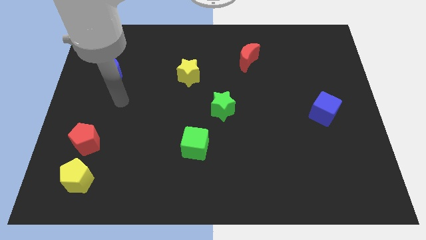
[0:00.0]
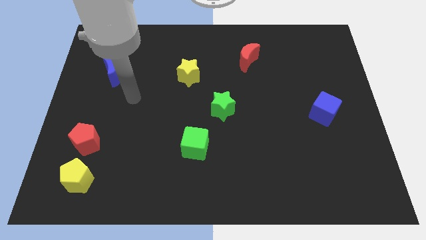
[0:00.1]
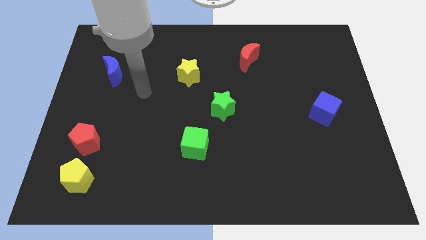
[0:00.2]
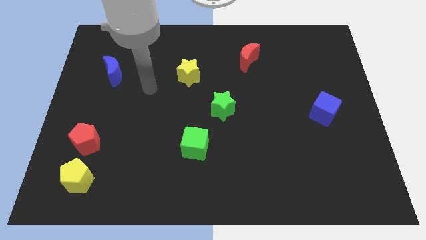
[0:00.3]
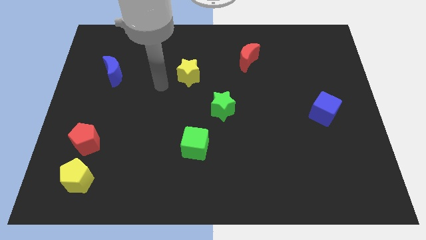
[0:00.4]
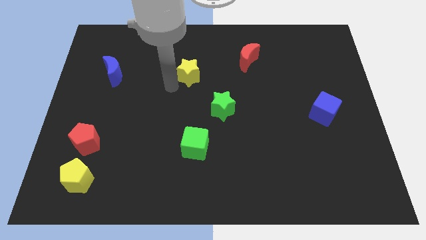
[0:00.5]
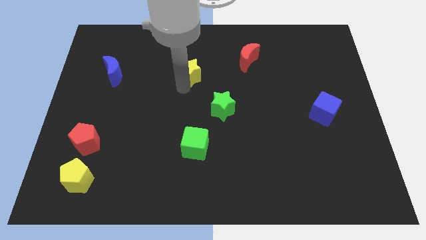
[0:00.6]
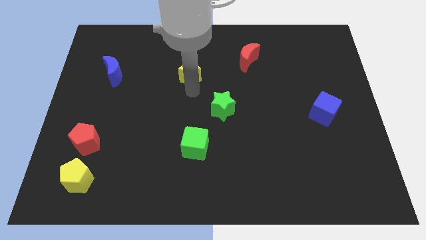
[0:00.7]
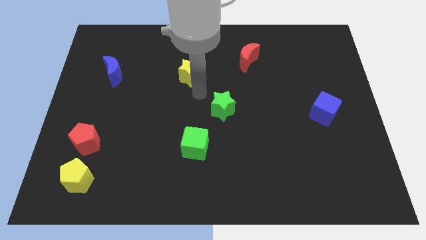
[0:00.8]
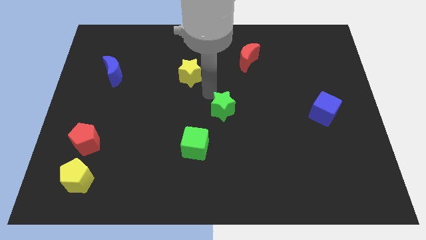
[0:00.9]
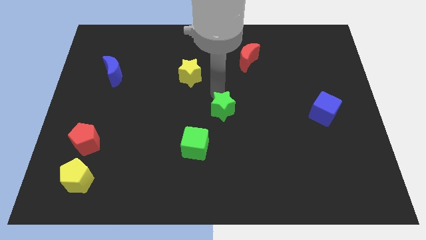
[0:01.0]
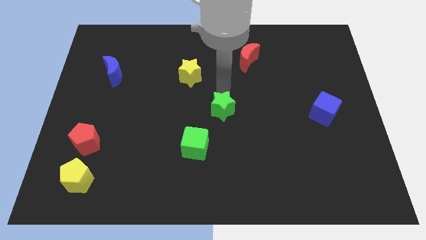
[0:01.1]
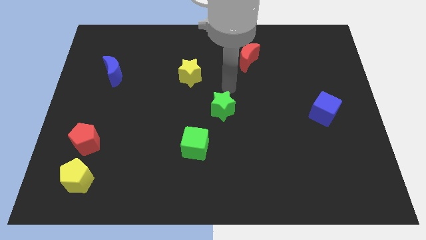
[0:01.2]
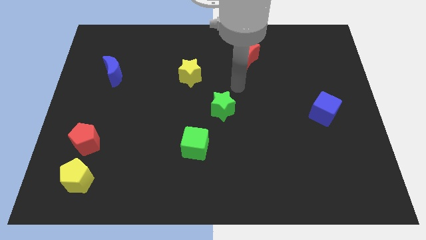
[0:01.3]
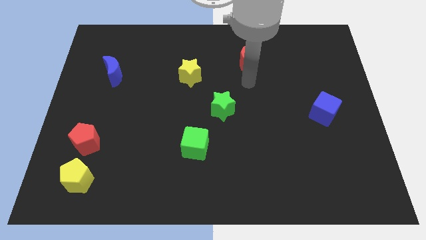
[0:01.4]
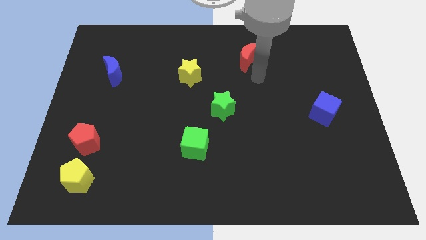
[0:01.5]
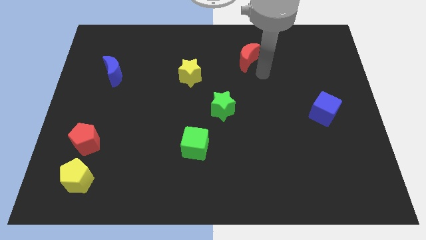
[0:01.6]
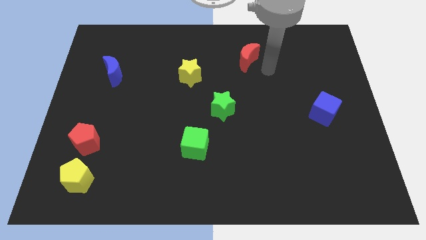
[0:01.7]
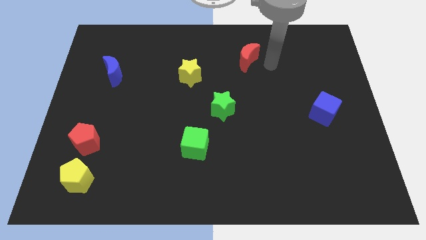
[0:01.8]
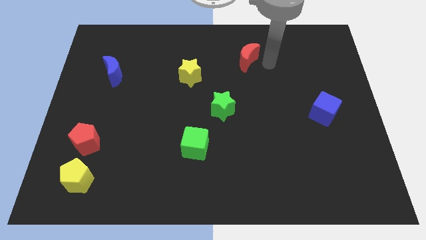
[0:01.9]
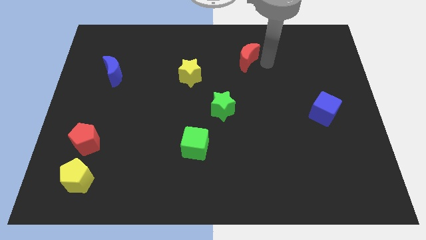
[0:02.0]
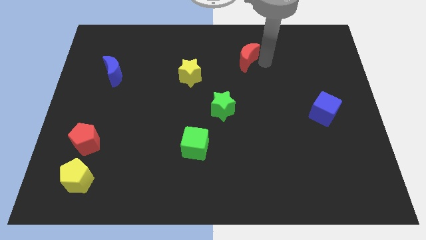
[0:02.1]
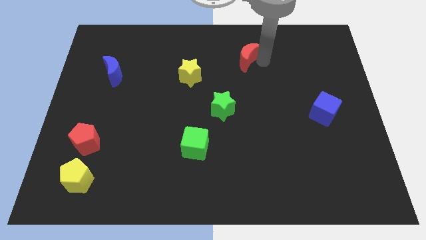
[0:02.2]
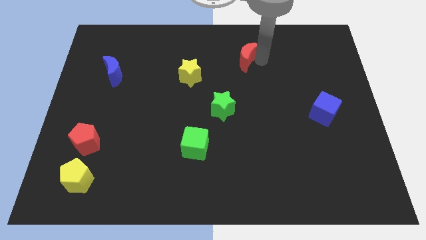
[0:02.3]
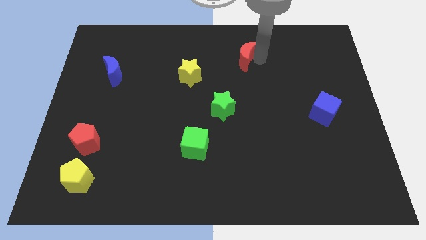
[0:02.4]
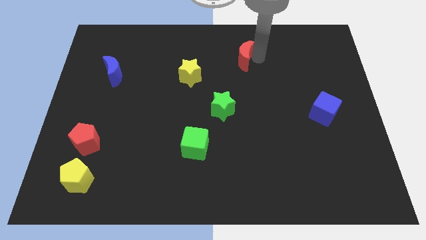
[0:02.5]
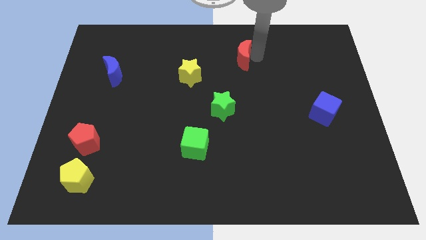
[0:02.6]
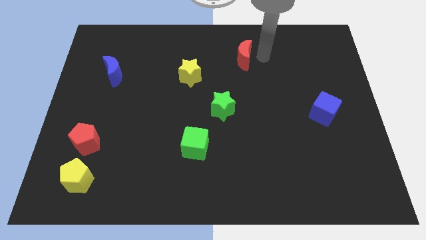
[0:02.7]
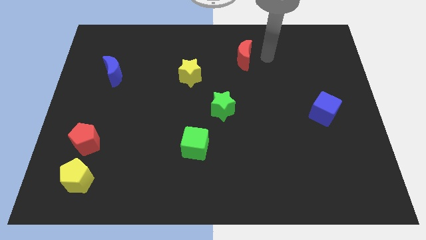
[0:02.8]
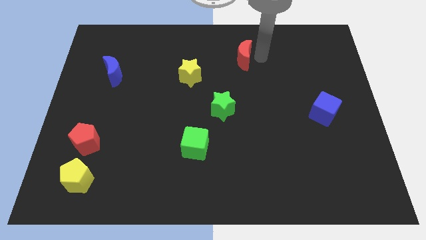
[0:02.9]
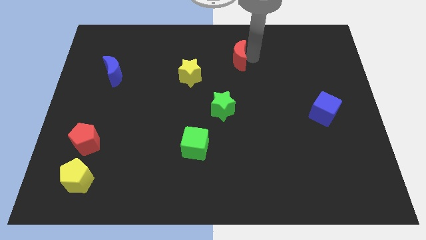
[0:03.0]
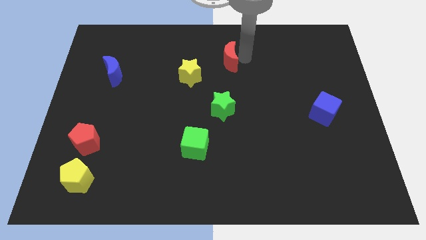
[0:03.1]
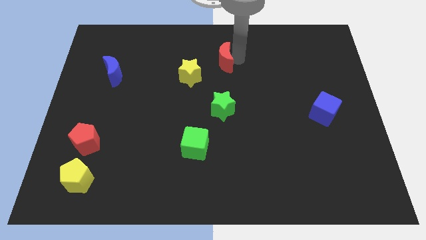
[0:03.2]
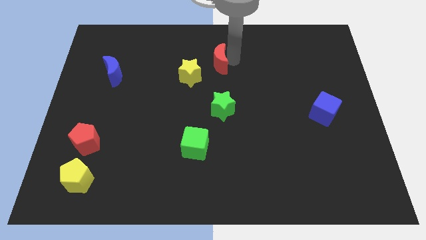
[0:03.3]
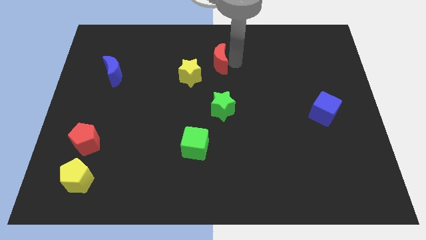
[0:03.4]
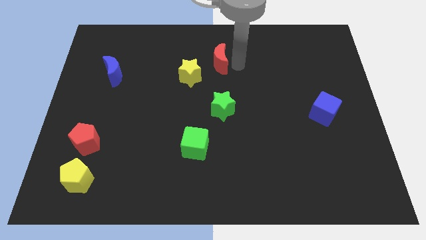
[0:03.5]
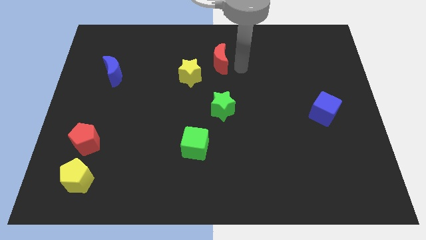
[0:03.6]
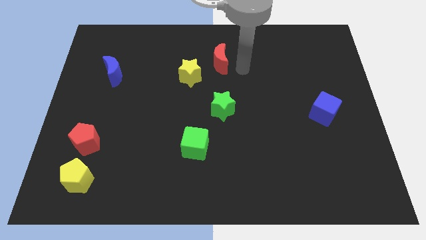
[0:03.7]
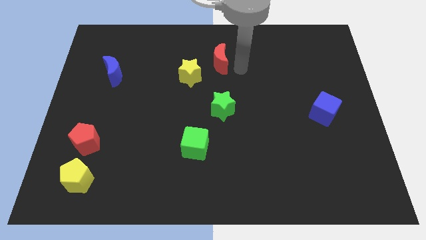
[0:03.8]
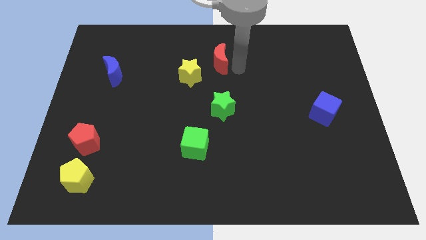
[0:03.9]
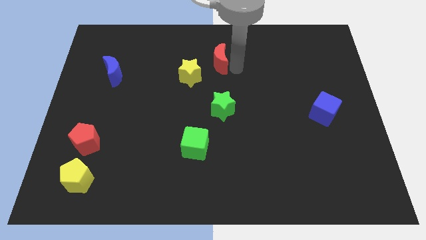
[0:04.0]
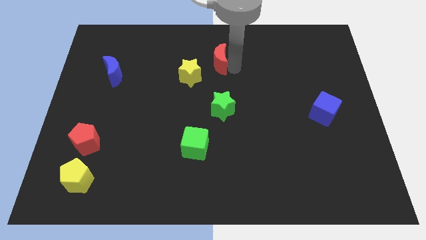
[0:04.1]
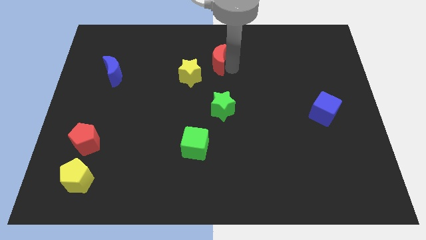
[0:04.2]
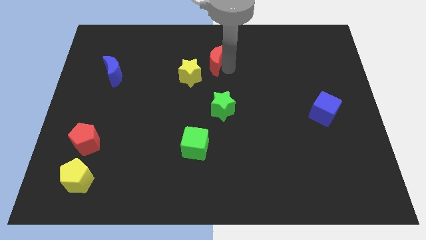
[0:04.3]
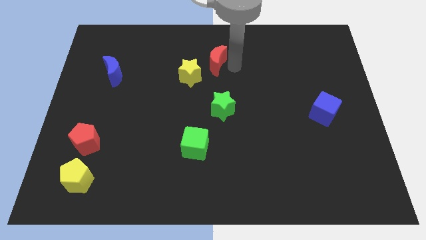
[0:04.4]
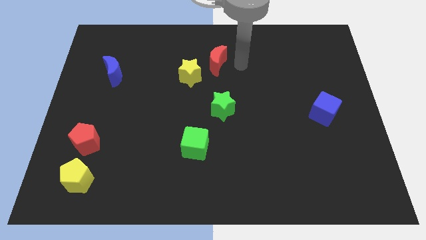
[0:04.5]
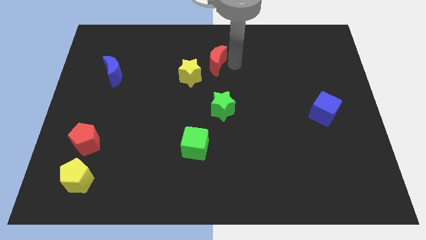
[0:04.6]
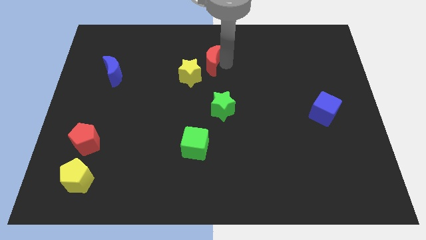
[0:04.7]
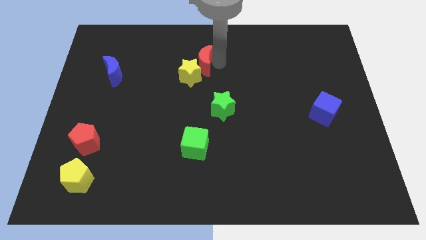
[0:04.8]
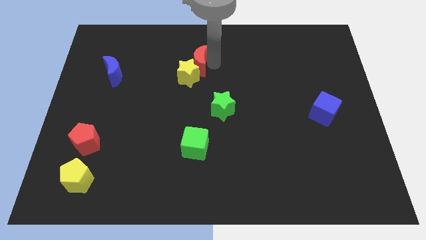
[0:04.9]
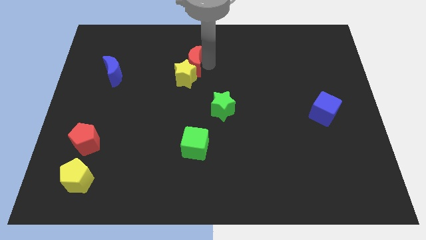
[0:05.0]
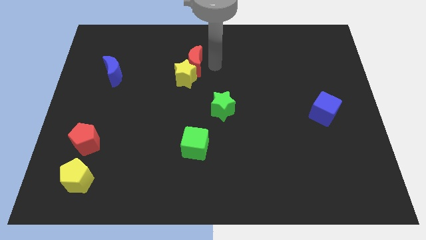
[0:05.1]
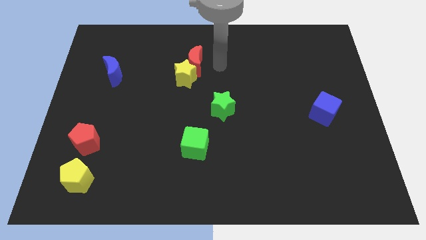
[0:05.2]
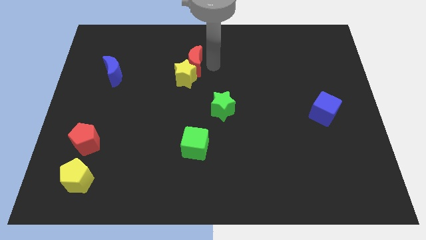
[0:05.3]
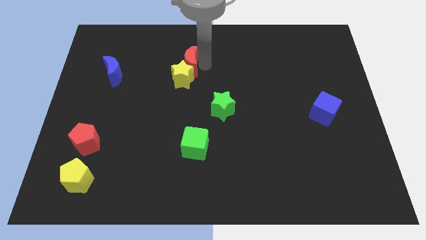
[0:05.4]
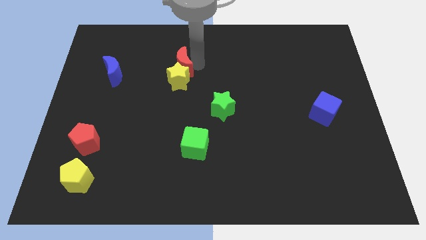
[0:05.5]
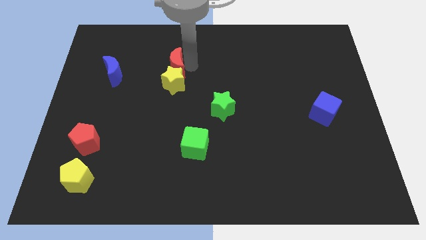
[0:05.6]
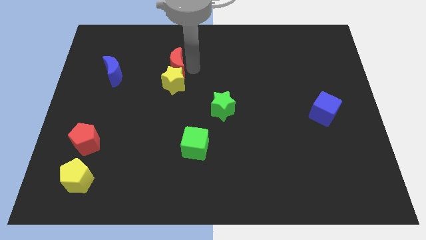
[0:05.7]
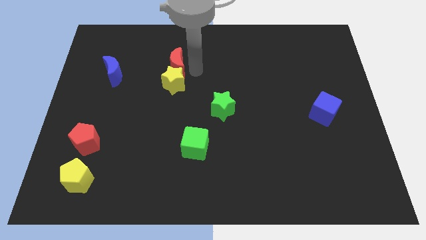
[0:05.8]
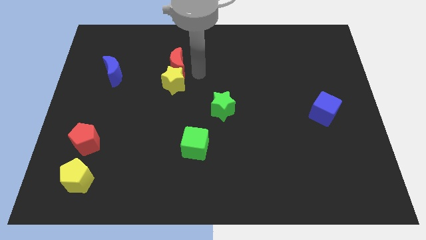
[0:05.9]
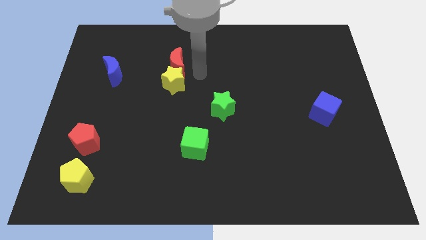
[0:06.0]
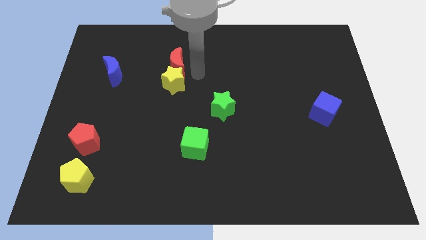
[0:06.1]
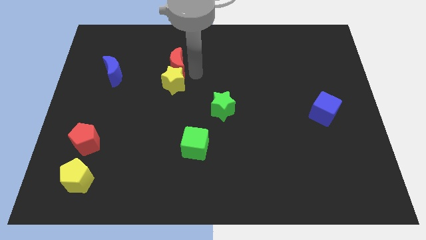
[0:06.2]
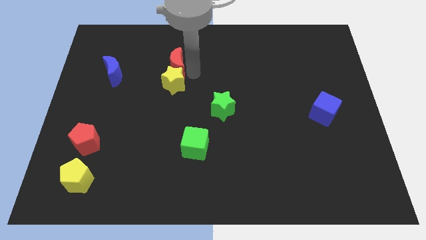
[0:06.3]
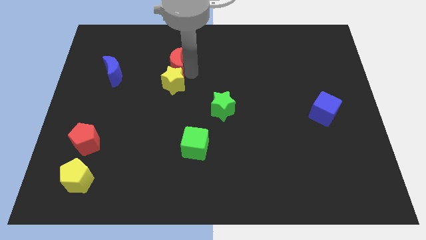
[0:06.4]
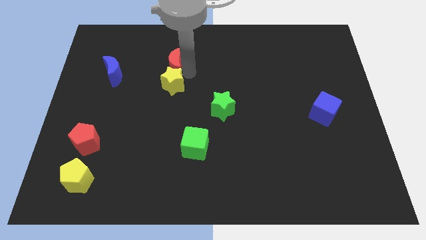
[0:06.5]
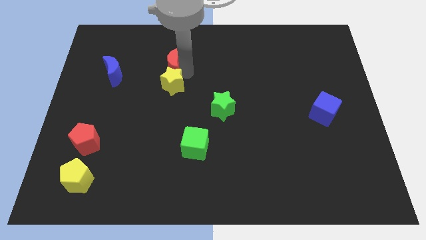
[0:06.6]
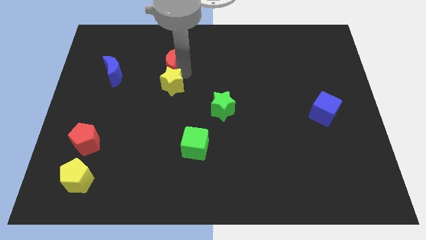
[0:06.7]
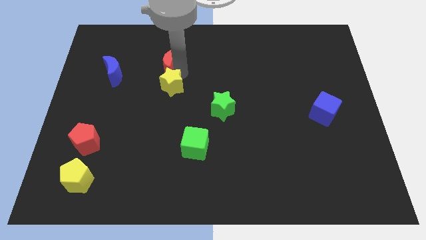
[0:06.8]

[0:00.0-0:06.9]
slide the red moon left

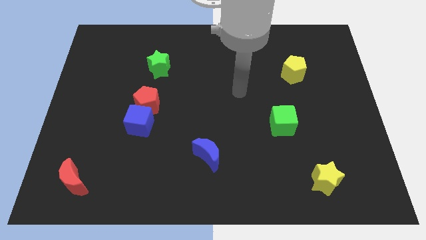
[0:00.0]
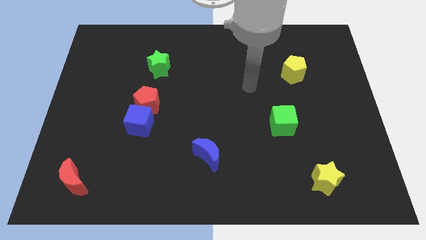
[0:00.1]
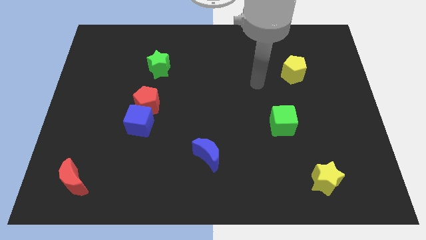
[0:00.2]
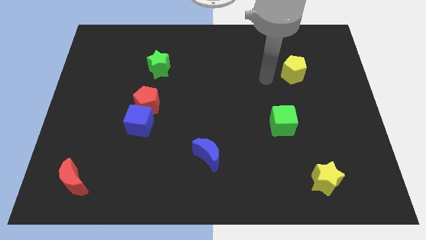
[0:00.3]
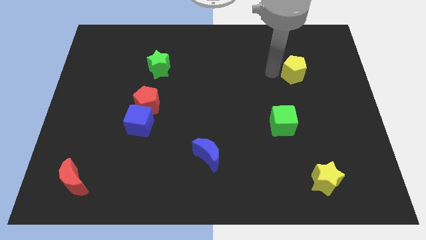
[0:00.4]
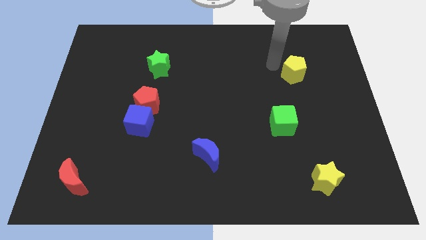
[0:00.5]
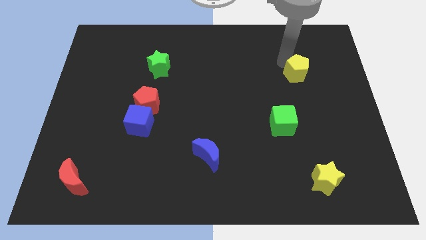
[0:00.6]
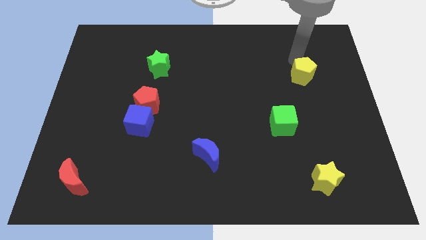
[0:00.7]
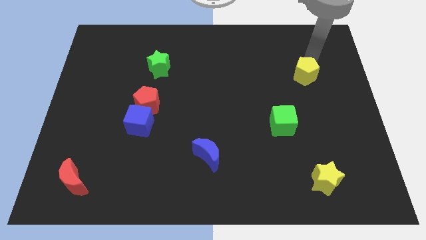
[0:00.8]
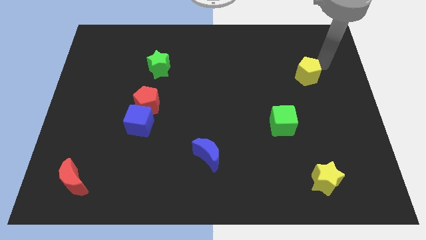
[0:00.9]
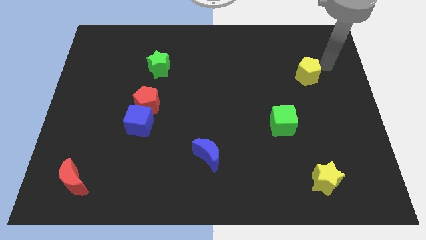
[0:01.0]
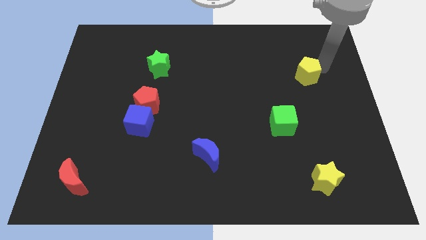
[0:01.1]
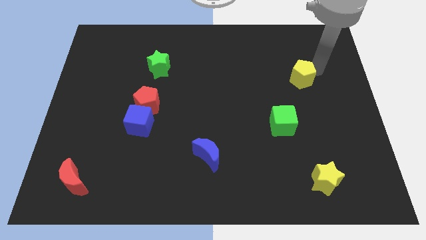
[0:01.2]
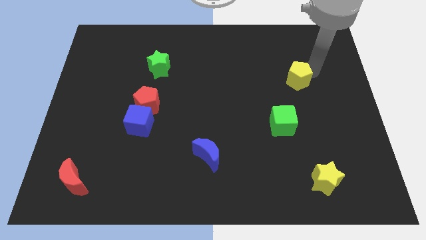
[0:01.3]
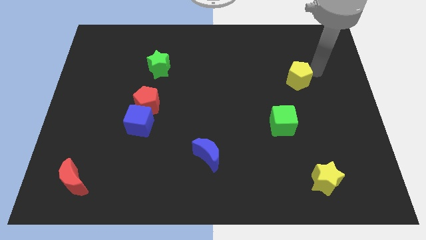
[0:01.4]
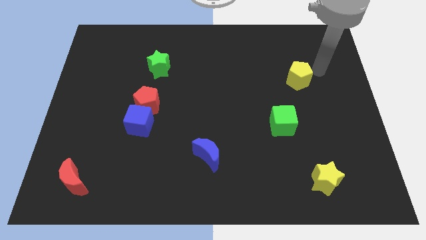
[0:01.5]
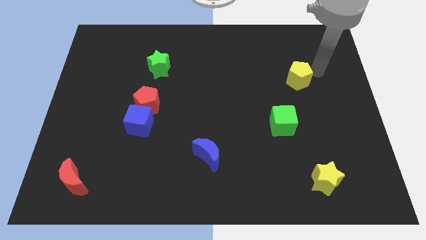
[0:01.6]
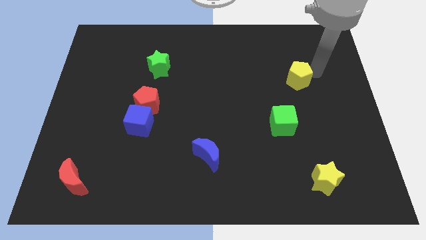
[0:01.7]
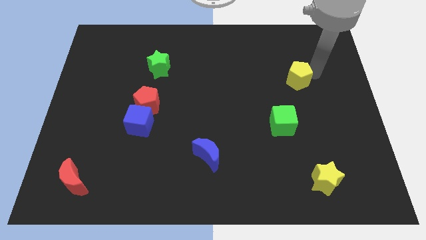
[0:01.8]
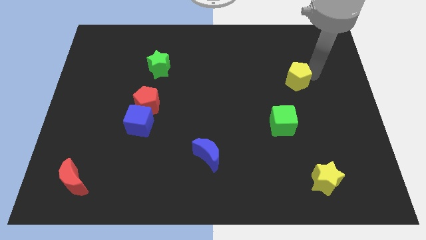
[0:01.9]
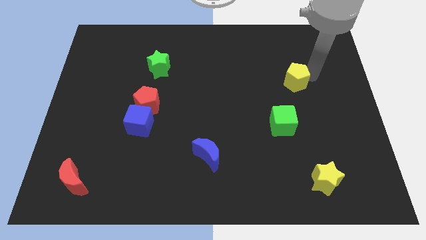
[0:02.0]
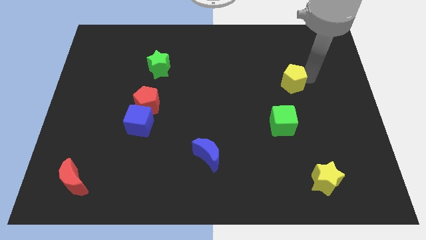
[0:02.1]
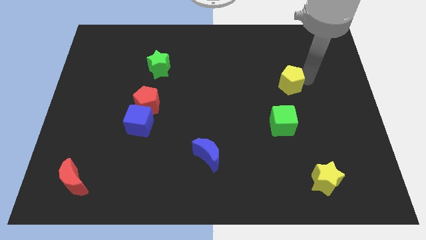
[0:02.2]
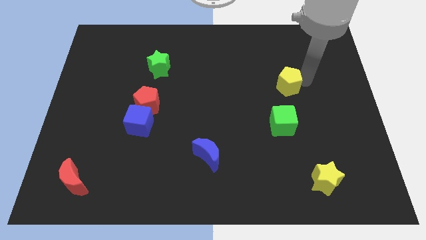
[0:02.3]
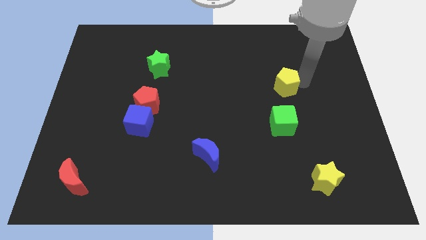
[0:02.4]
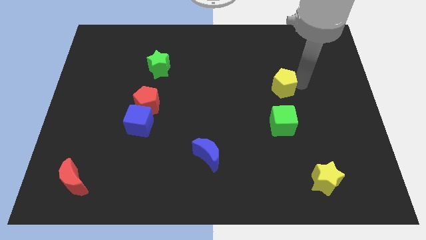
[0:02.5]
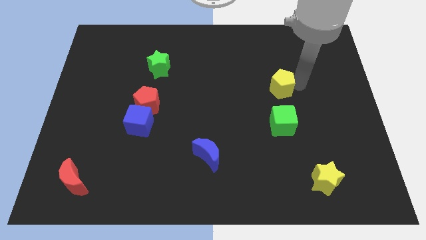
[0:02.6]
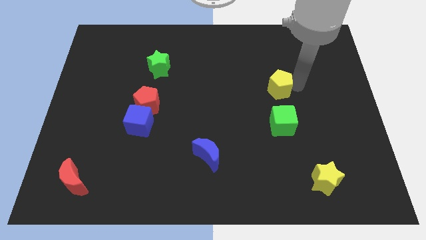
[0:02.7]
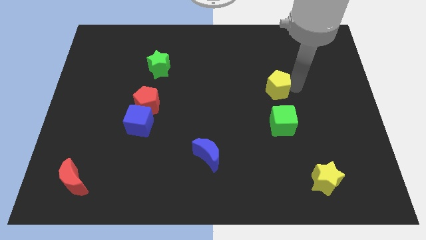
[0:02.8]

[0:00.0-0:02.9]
move the yellow pentagon diagonally down and to the left a bit
